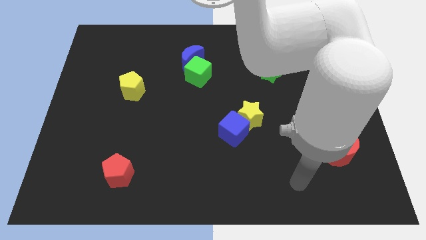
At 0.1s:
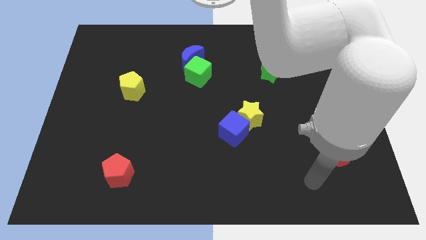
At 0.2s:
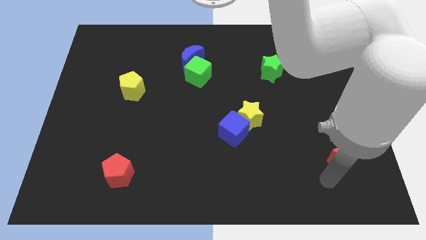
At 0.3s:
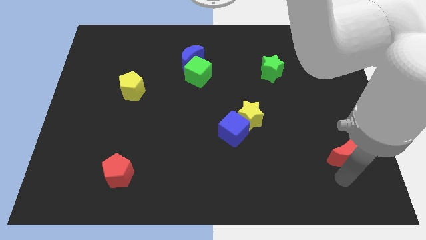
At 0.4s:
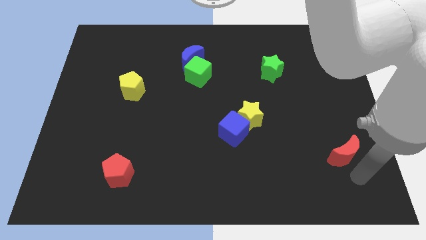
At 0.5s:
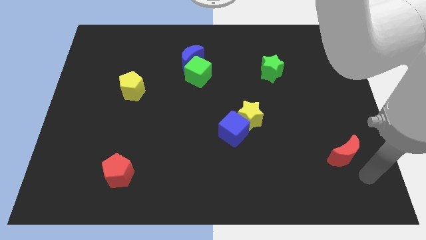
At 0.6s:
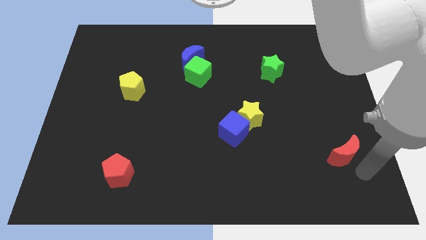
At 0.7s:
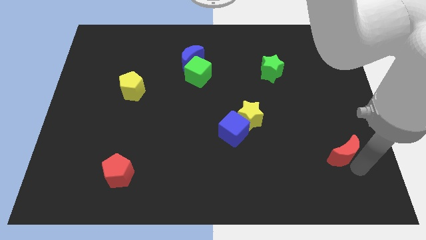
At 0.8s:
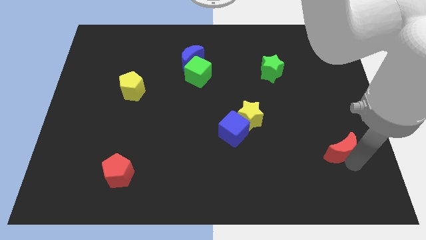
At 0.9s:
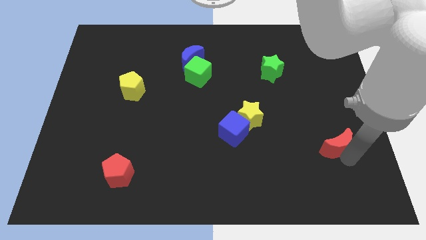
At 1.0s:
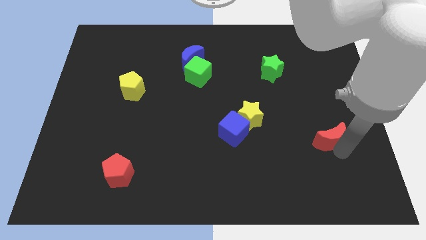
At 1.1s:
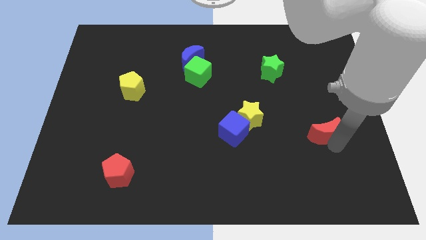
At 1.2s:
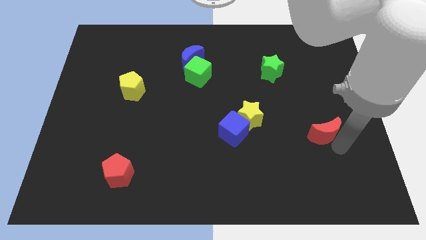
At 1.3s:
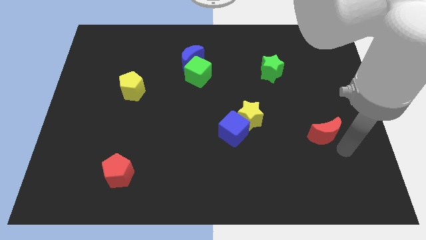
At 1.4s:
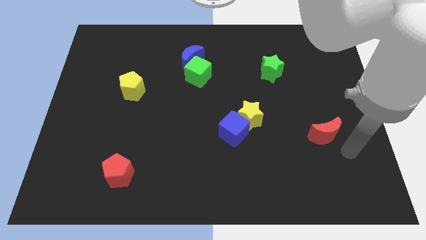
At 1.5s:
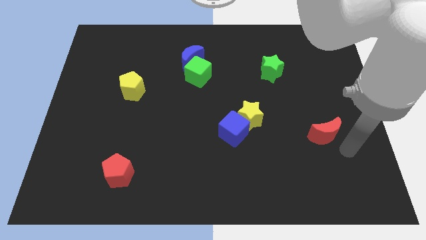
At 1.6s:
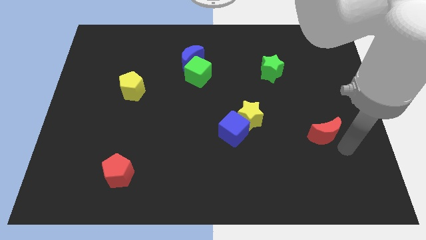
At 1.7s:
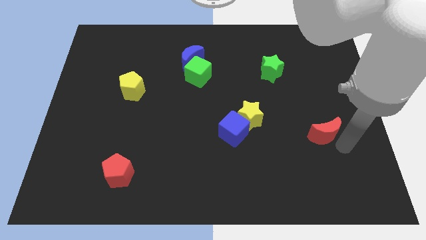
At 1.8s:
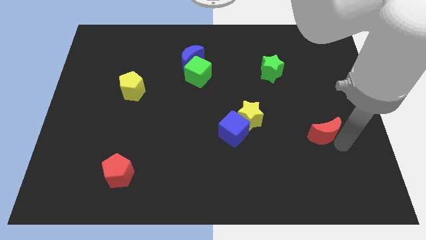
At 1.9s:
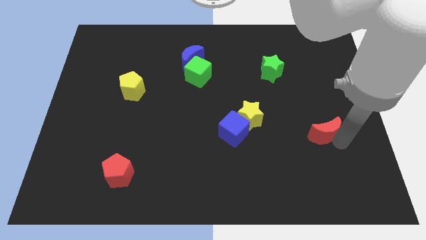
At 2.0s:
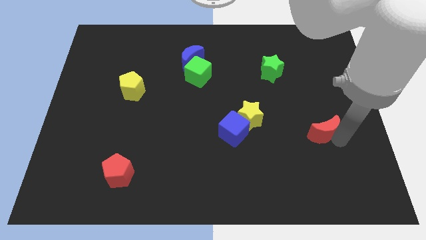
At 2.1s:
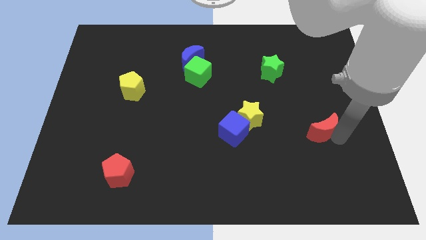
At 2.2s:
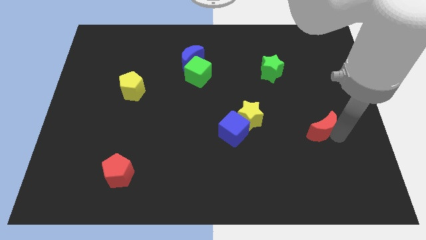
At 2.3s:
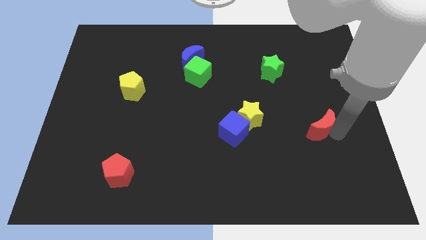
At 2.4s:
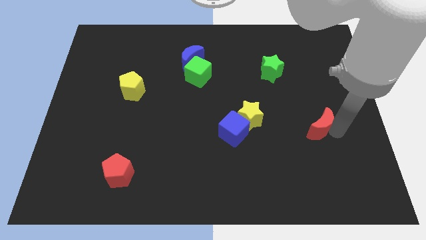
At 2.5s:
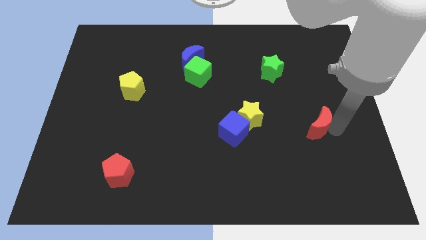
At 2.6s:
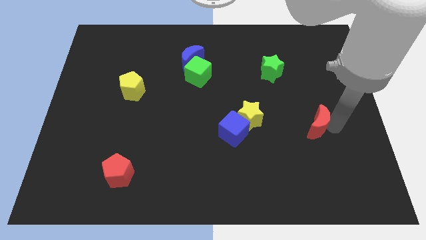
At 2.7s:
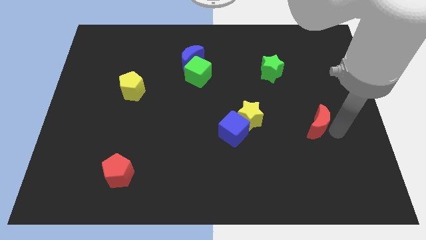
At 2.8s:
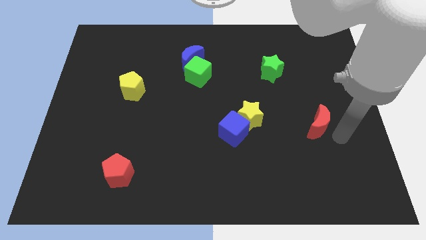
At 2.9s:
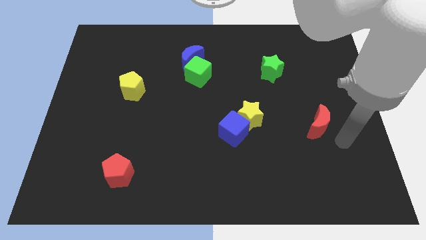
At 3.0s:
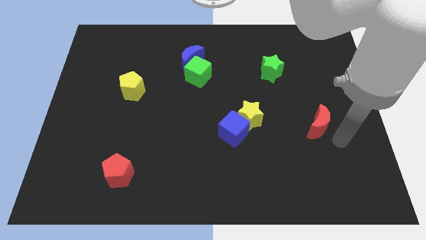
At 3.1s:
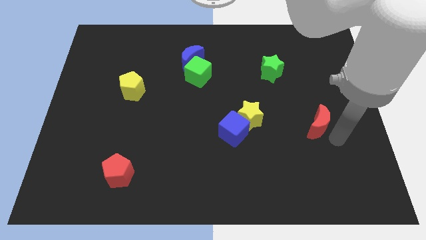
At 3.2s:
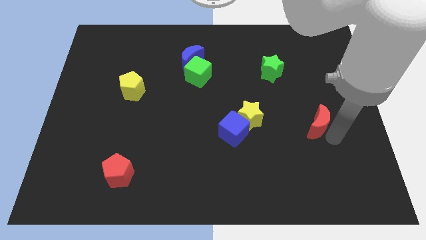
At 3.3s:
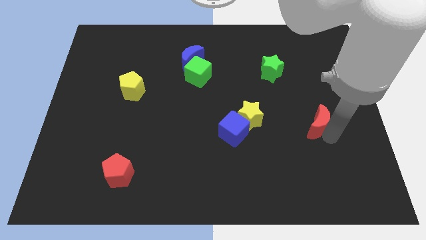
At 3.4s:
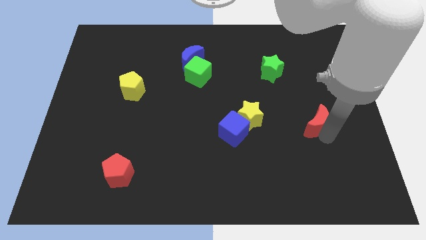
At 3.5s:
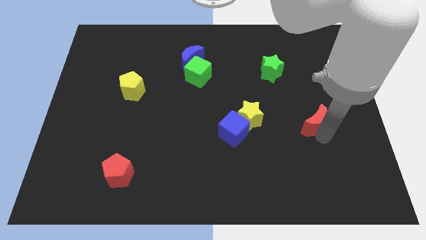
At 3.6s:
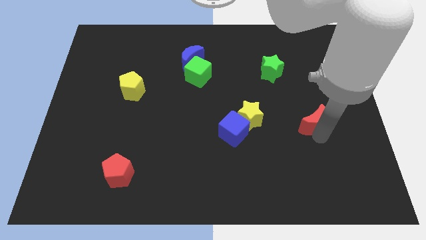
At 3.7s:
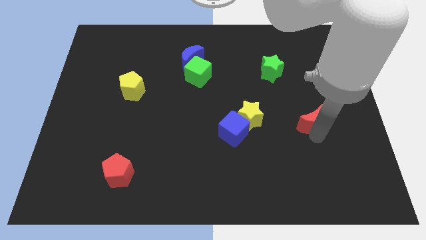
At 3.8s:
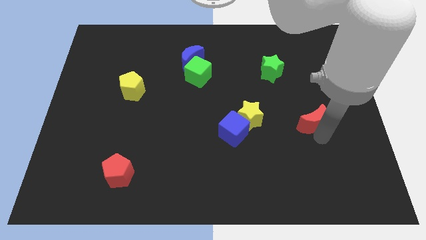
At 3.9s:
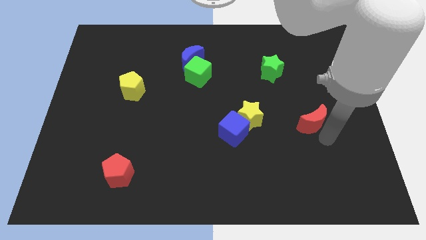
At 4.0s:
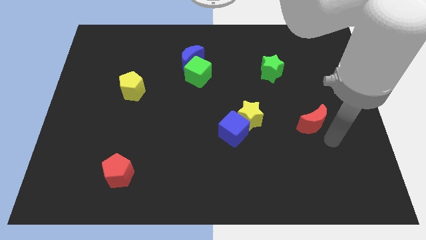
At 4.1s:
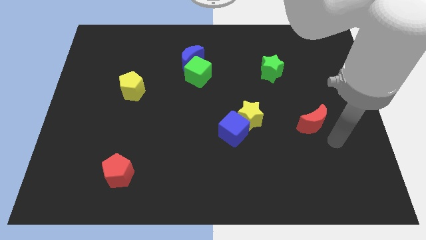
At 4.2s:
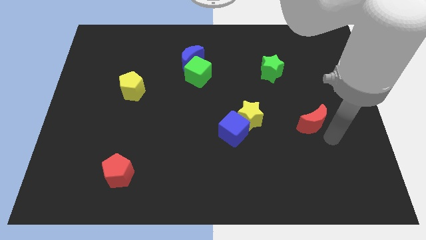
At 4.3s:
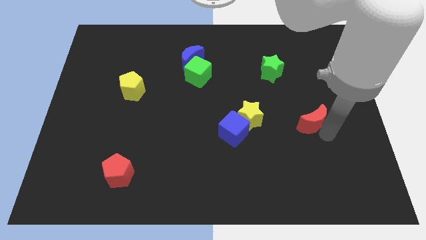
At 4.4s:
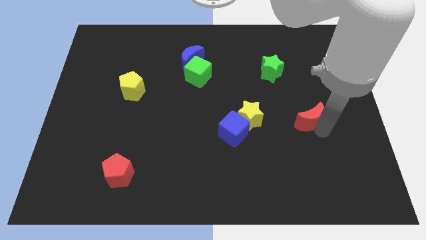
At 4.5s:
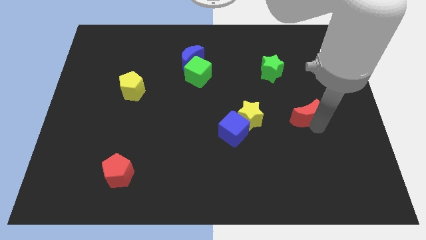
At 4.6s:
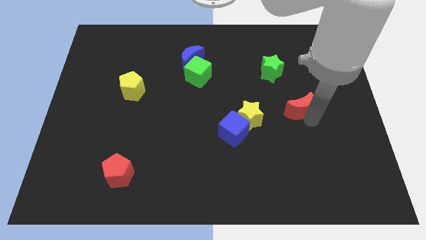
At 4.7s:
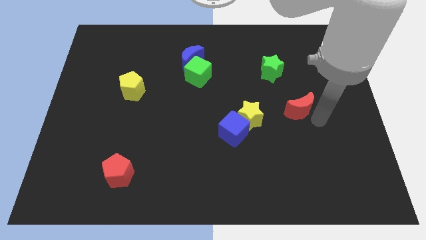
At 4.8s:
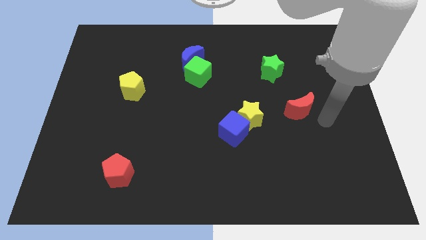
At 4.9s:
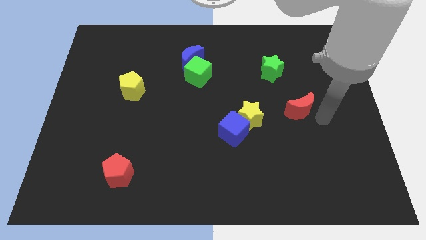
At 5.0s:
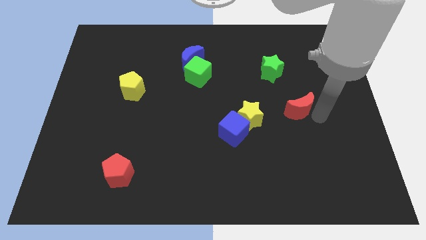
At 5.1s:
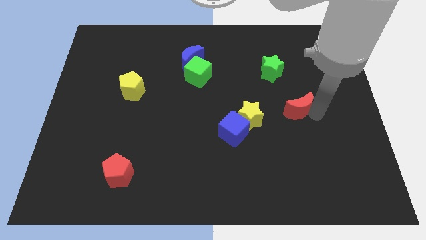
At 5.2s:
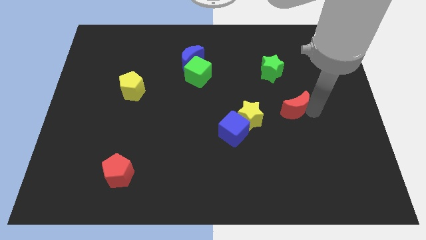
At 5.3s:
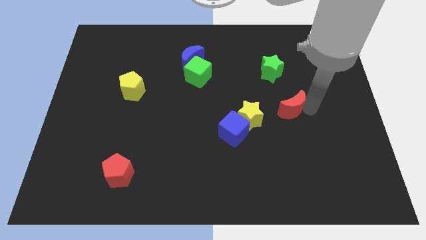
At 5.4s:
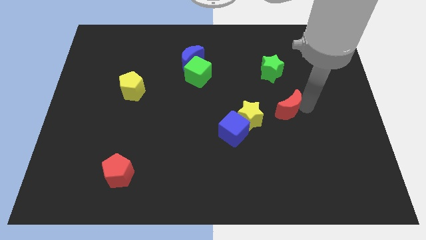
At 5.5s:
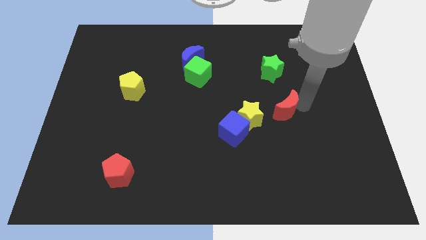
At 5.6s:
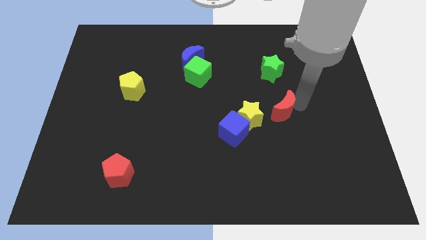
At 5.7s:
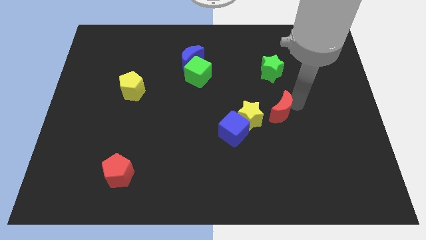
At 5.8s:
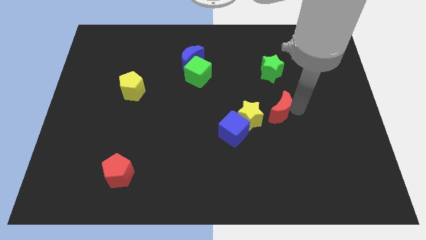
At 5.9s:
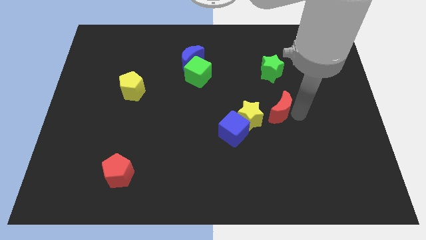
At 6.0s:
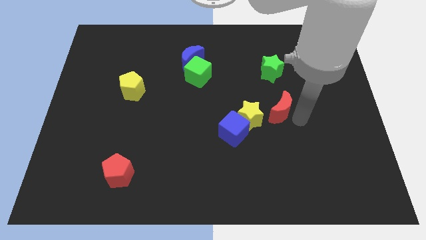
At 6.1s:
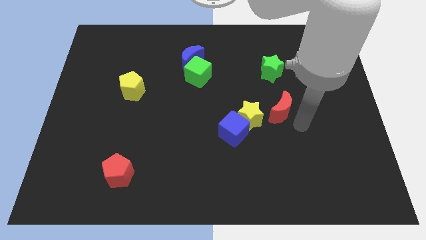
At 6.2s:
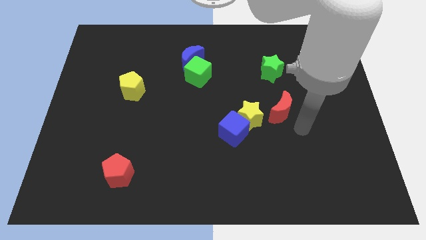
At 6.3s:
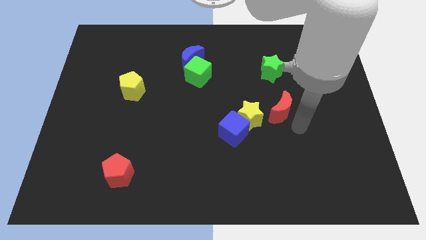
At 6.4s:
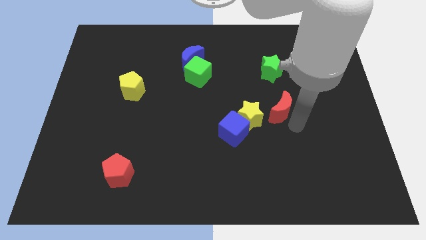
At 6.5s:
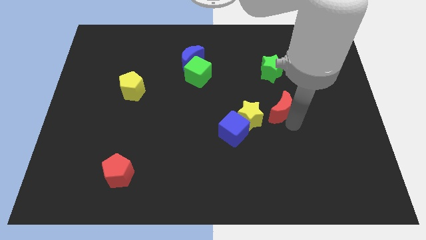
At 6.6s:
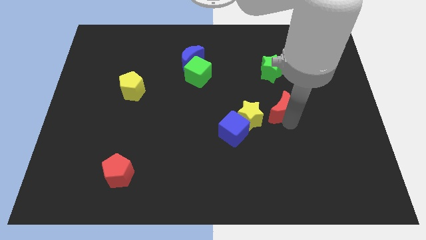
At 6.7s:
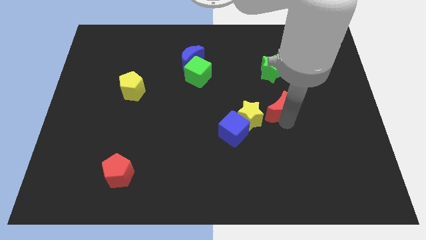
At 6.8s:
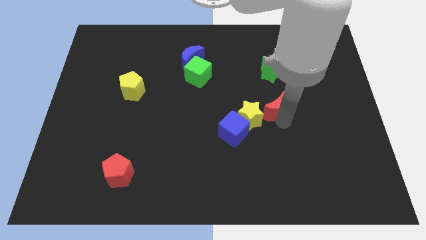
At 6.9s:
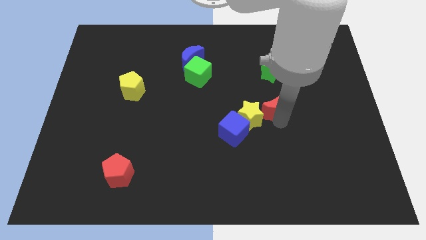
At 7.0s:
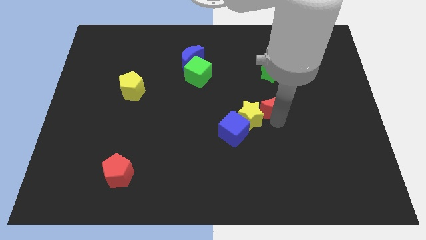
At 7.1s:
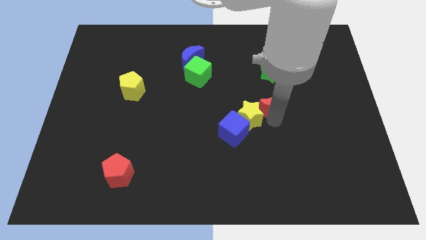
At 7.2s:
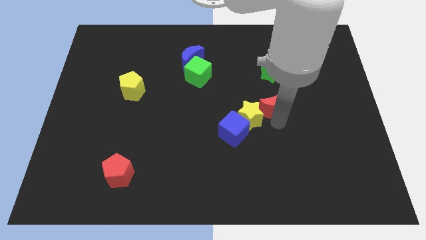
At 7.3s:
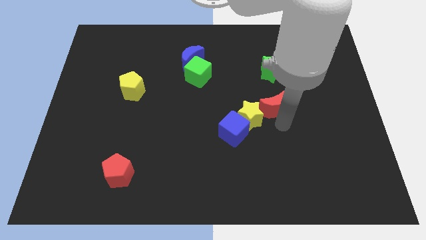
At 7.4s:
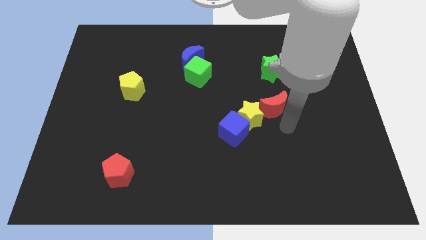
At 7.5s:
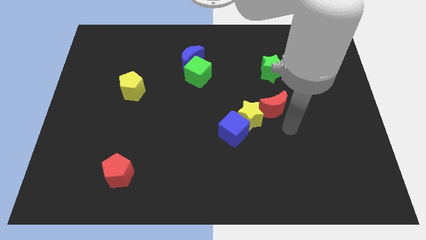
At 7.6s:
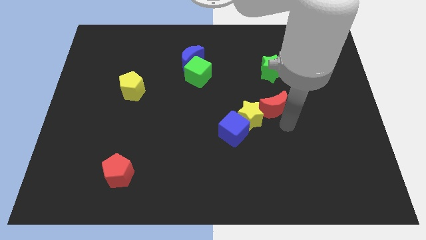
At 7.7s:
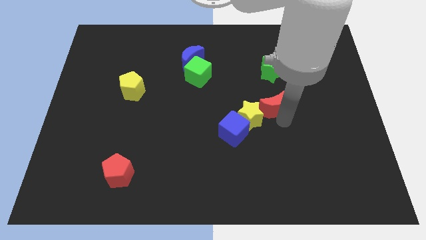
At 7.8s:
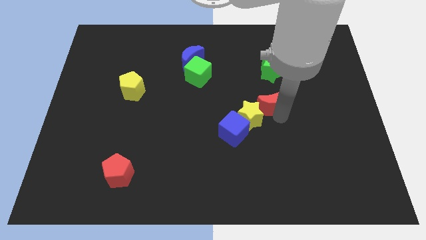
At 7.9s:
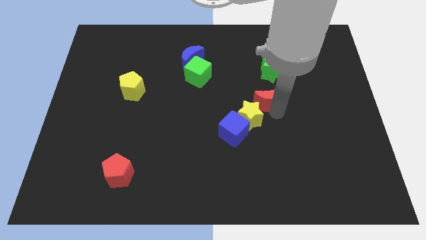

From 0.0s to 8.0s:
slide the red moon up and to the left
